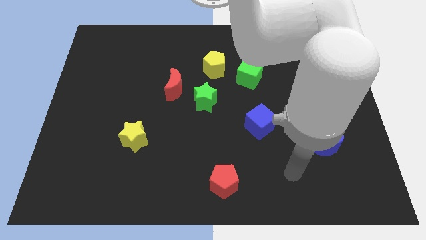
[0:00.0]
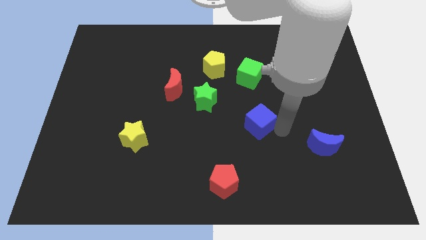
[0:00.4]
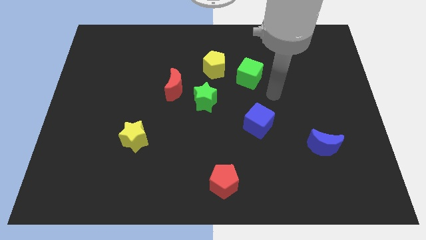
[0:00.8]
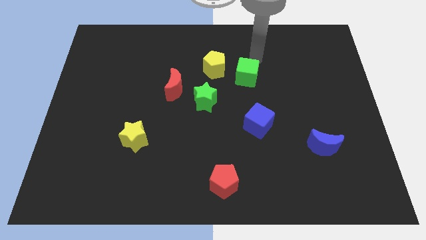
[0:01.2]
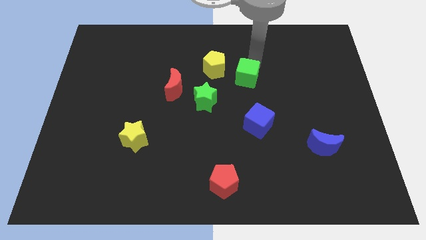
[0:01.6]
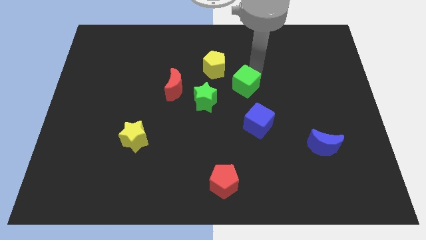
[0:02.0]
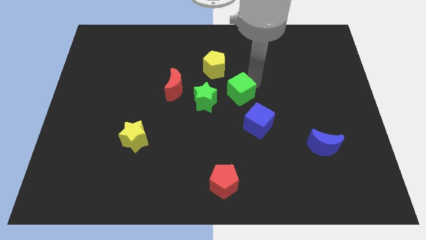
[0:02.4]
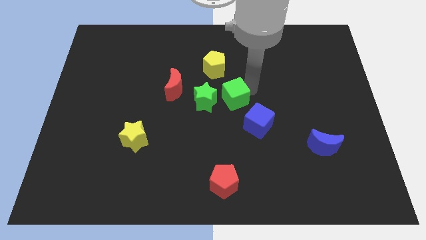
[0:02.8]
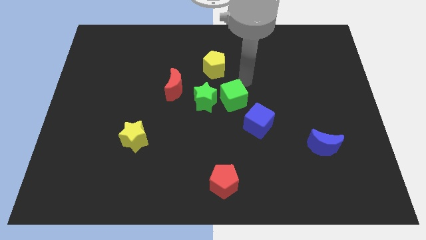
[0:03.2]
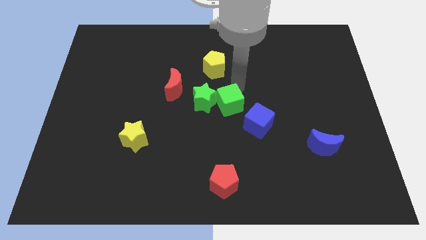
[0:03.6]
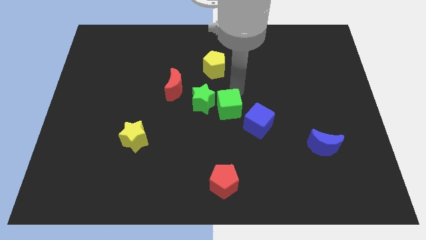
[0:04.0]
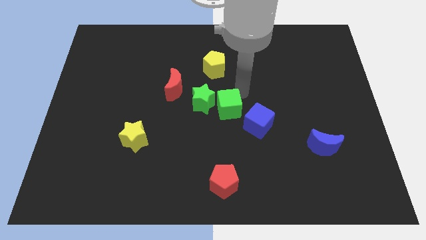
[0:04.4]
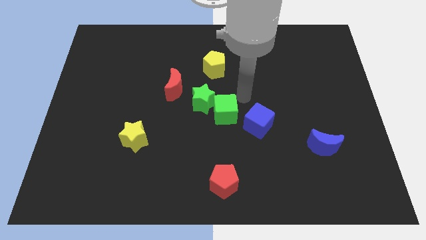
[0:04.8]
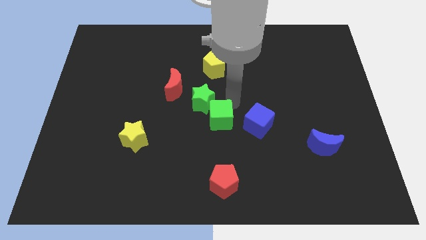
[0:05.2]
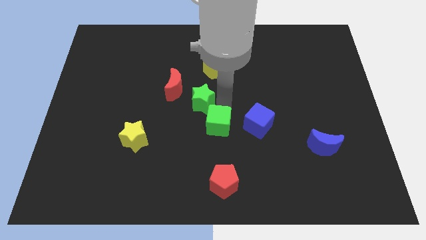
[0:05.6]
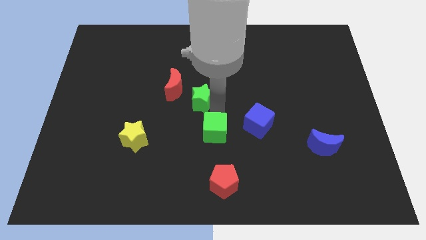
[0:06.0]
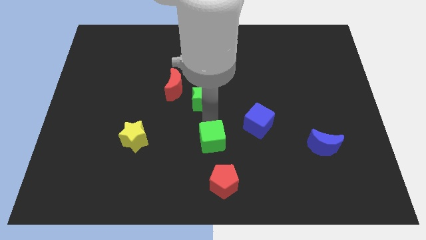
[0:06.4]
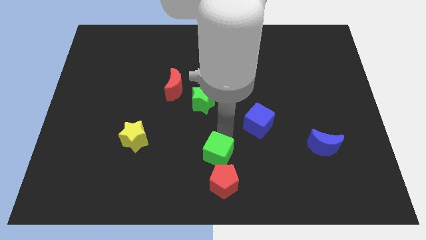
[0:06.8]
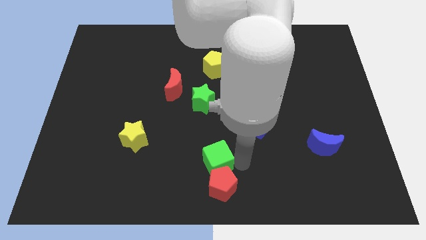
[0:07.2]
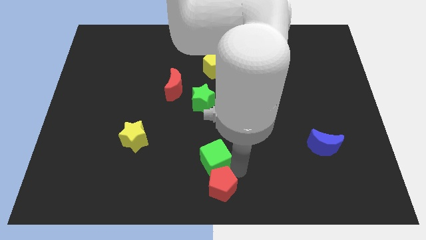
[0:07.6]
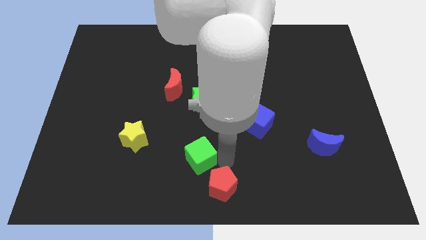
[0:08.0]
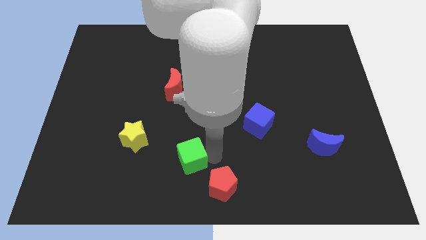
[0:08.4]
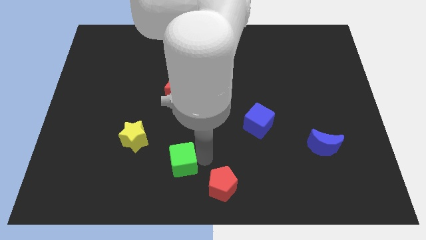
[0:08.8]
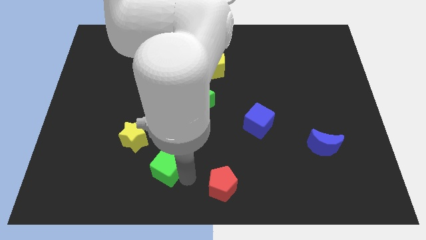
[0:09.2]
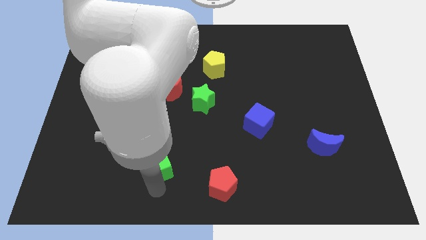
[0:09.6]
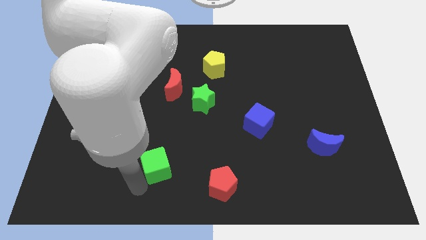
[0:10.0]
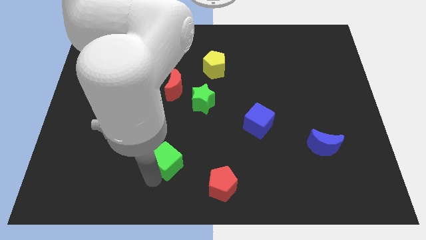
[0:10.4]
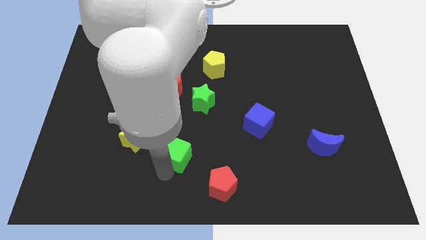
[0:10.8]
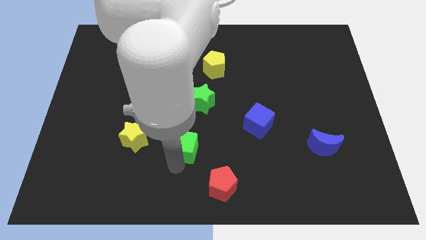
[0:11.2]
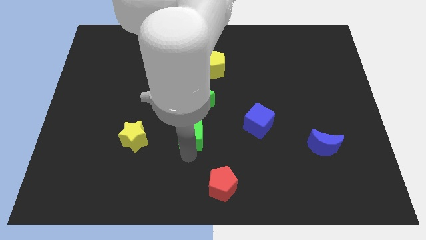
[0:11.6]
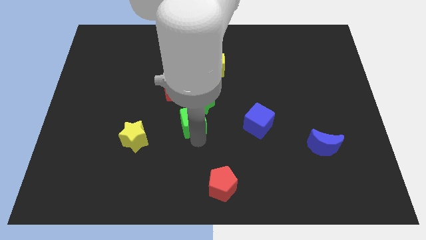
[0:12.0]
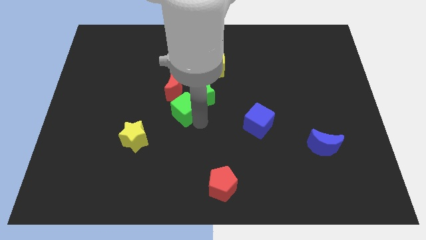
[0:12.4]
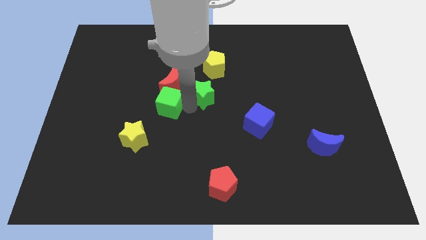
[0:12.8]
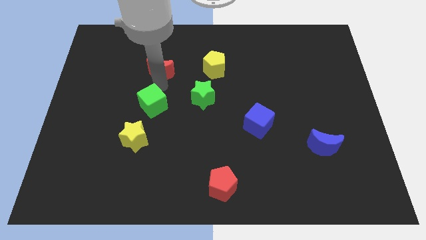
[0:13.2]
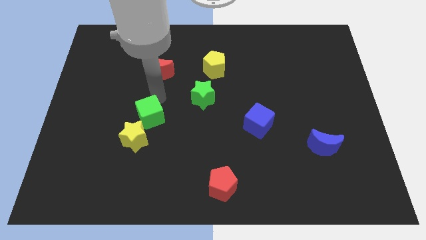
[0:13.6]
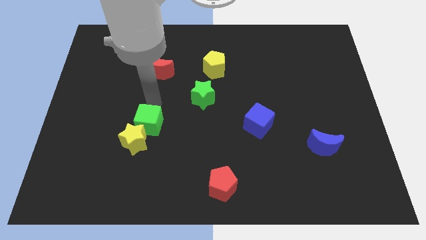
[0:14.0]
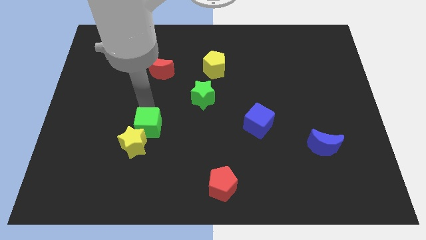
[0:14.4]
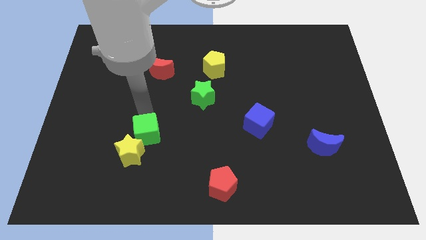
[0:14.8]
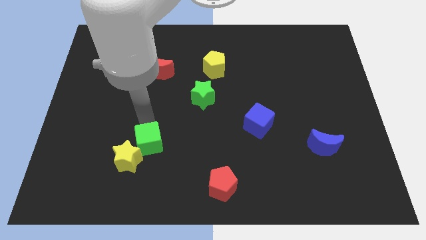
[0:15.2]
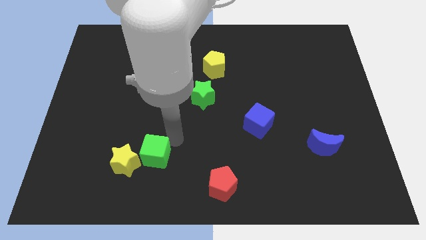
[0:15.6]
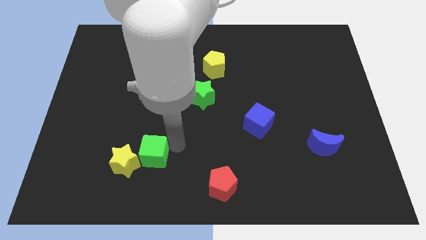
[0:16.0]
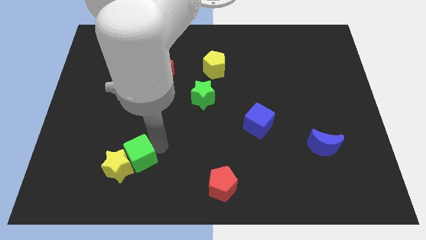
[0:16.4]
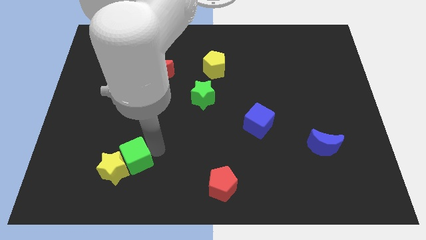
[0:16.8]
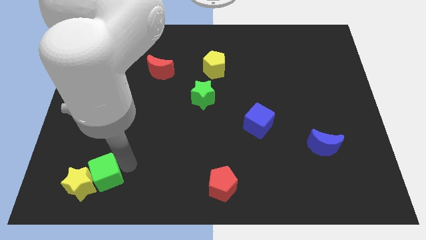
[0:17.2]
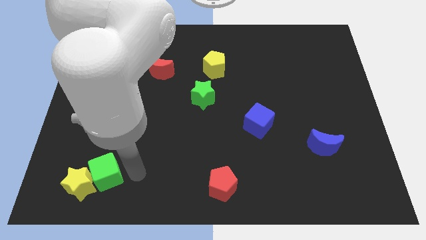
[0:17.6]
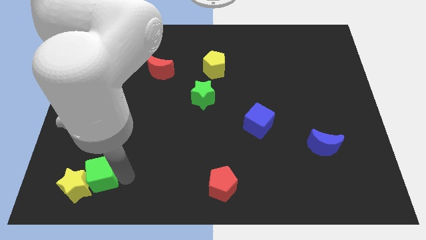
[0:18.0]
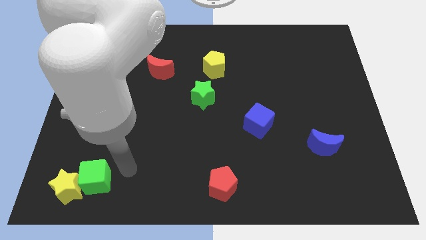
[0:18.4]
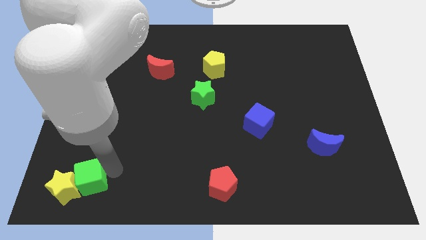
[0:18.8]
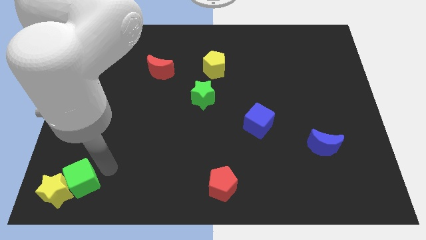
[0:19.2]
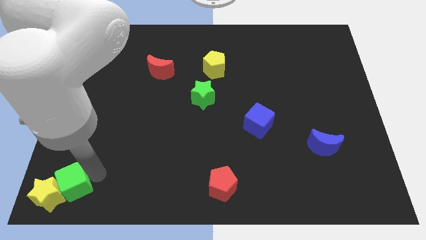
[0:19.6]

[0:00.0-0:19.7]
move the green cube to the bottom left

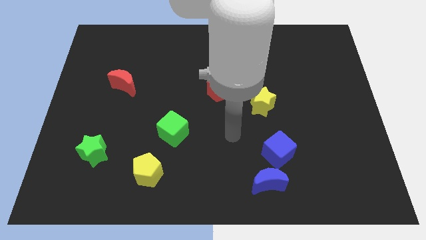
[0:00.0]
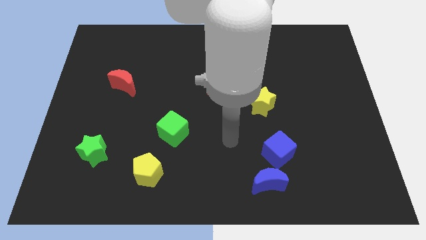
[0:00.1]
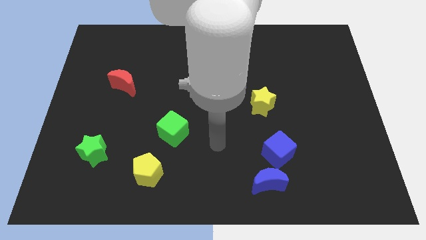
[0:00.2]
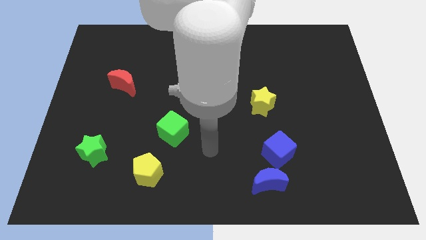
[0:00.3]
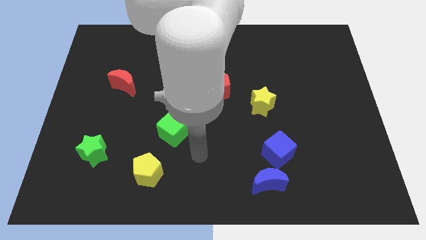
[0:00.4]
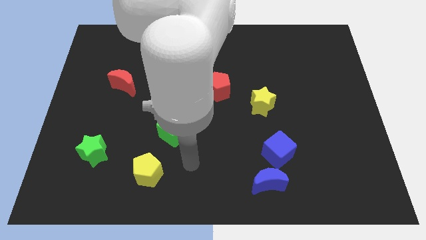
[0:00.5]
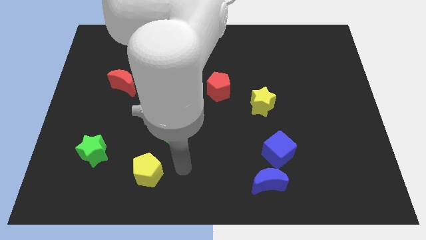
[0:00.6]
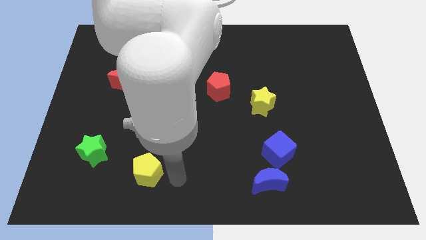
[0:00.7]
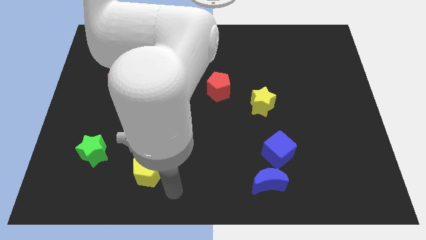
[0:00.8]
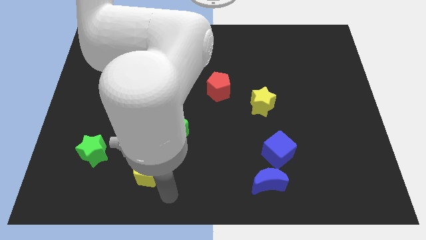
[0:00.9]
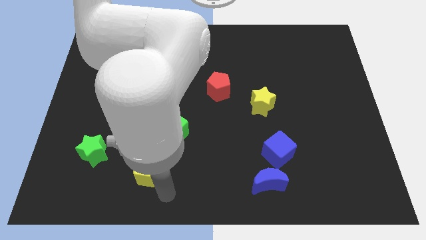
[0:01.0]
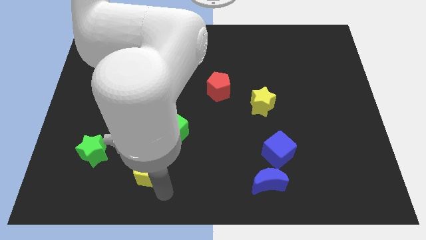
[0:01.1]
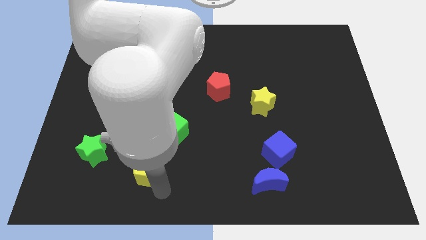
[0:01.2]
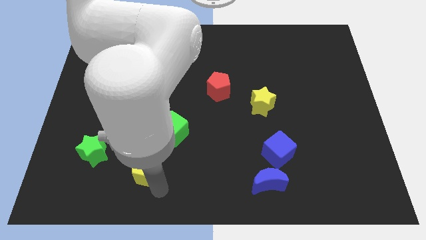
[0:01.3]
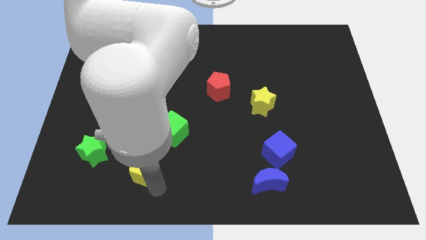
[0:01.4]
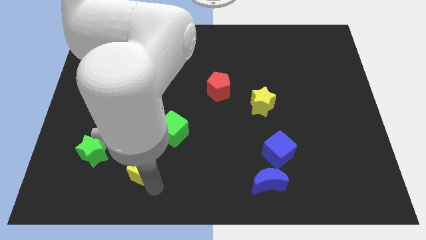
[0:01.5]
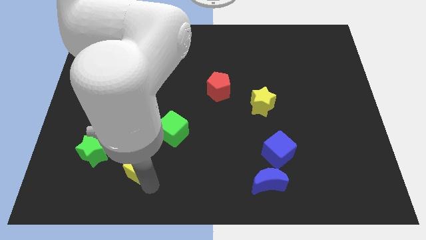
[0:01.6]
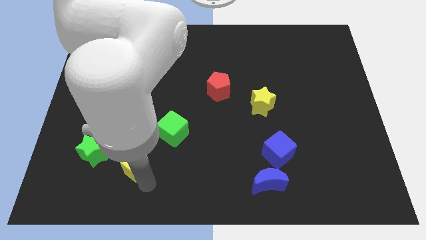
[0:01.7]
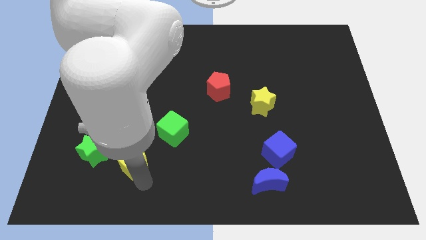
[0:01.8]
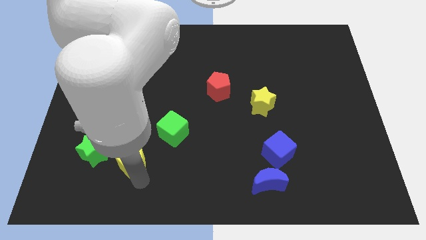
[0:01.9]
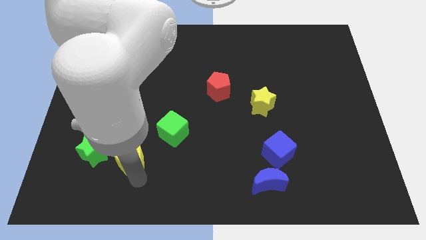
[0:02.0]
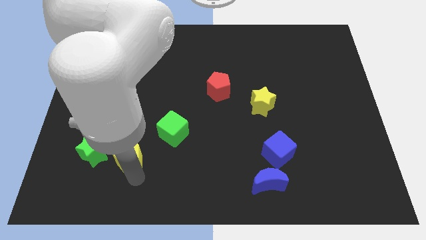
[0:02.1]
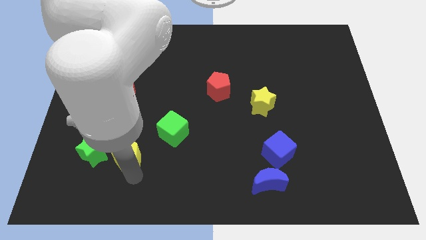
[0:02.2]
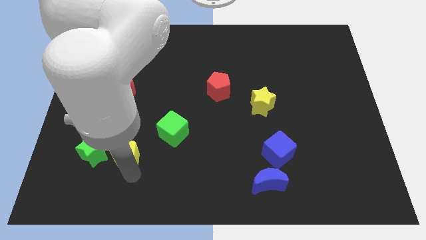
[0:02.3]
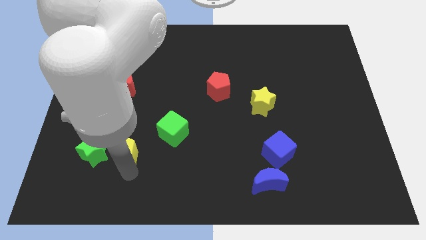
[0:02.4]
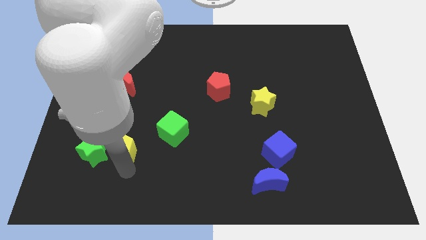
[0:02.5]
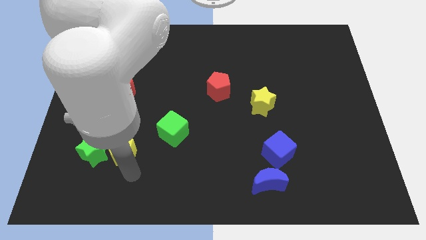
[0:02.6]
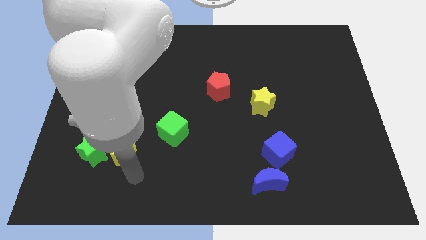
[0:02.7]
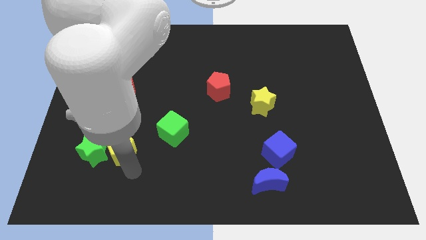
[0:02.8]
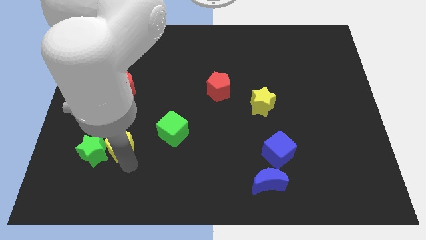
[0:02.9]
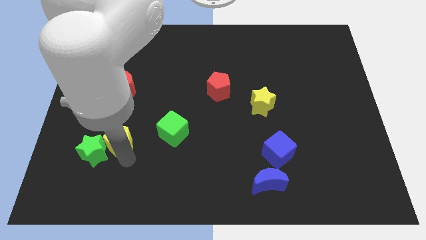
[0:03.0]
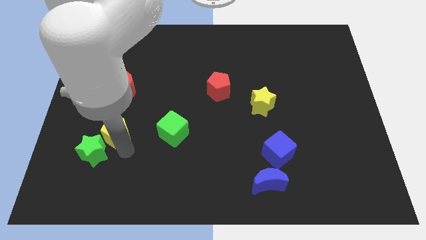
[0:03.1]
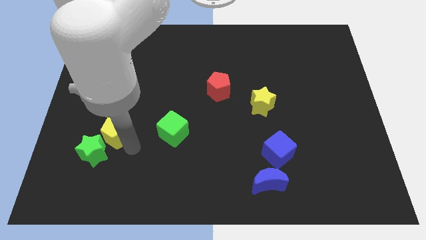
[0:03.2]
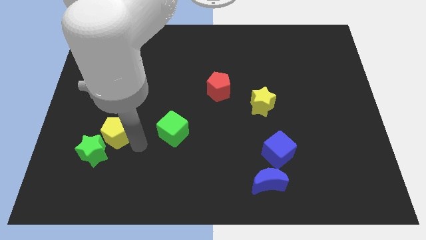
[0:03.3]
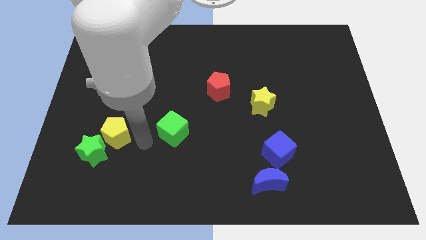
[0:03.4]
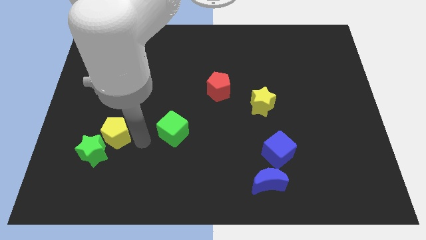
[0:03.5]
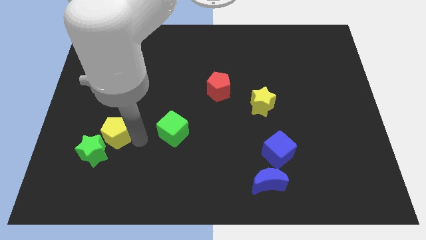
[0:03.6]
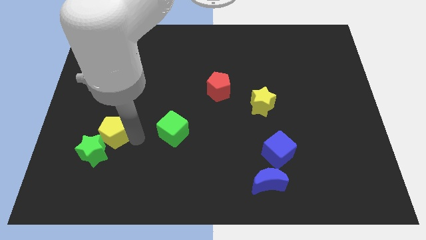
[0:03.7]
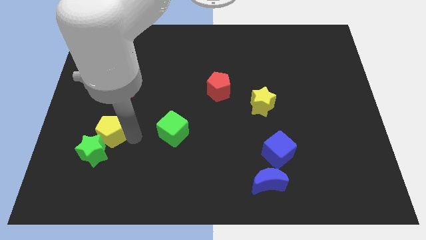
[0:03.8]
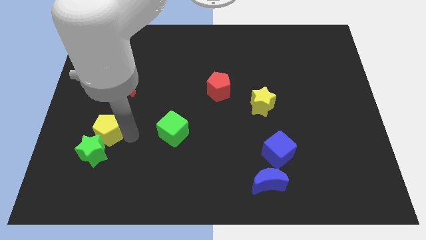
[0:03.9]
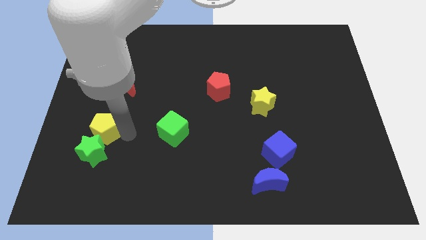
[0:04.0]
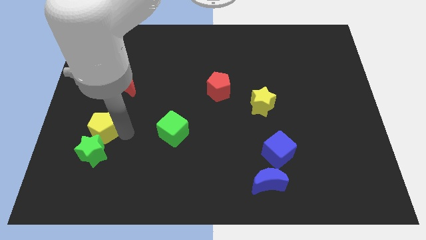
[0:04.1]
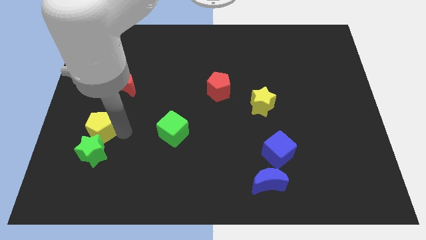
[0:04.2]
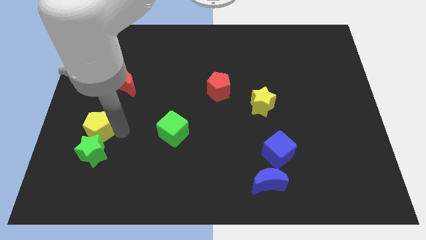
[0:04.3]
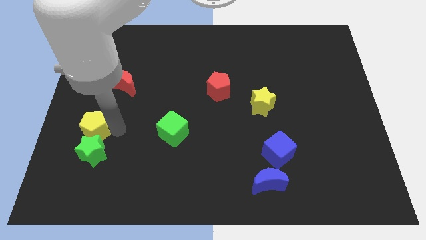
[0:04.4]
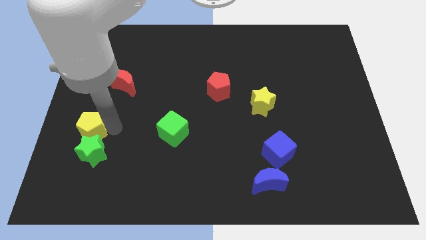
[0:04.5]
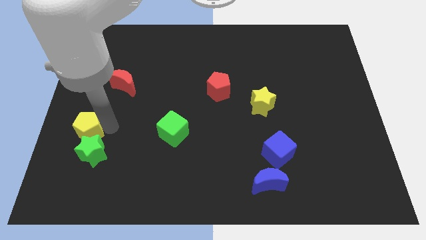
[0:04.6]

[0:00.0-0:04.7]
move the yellow pentagon to the left side
